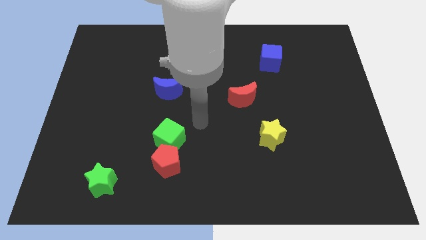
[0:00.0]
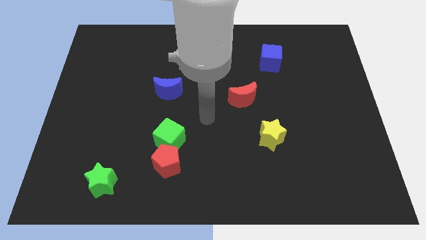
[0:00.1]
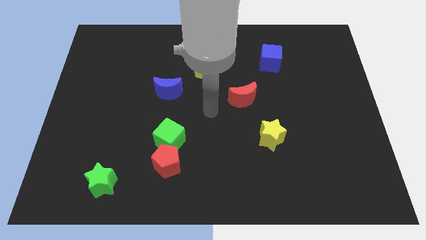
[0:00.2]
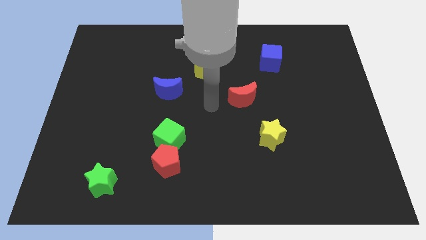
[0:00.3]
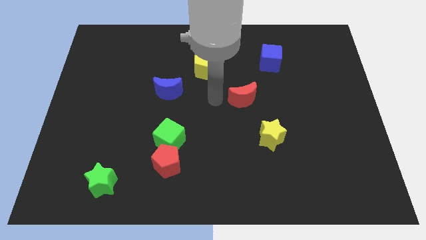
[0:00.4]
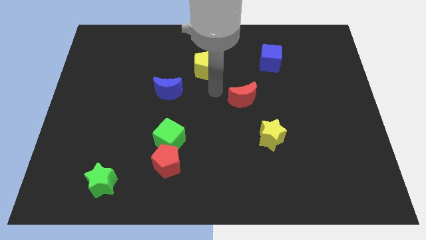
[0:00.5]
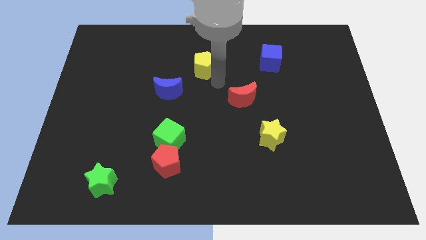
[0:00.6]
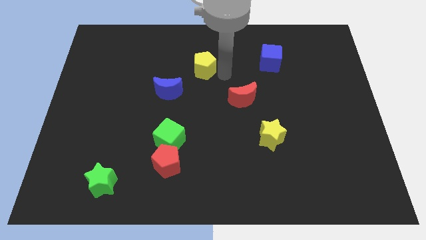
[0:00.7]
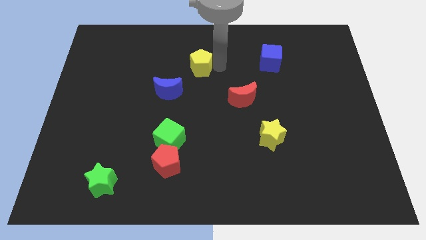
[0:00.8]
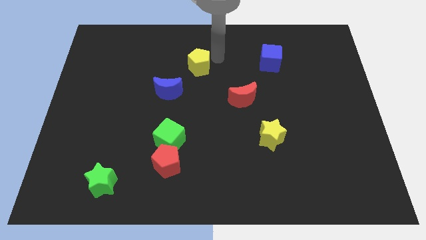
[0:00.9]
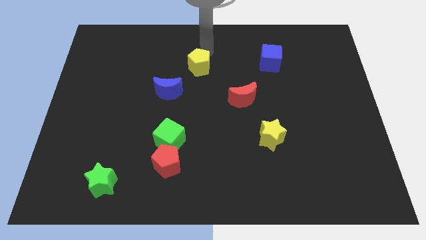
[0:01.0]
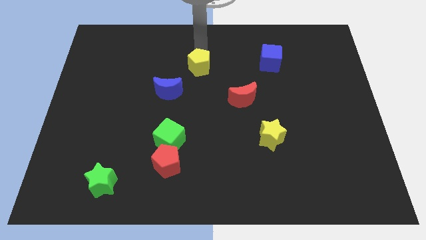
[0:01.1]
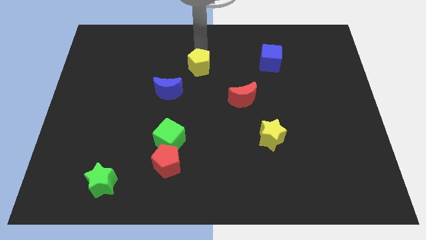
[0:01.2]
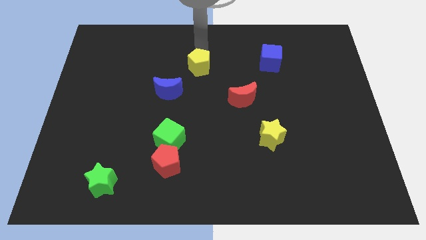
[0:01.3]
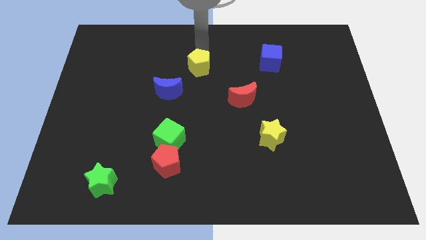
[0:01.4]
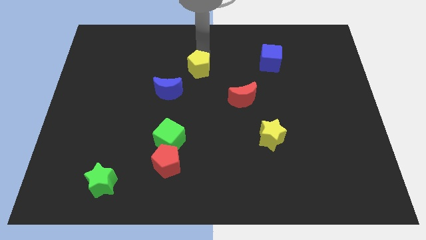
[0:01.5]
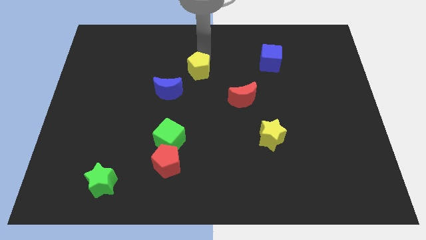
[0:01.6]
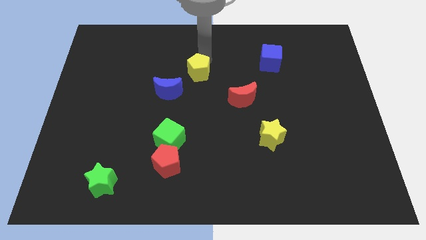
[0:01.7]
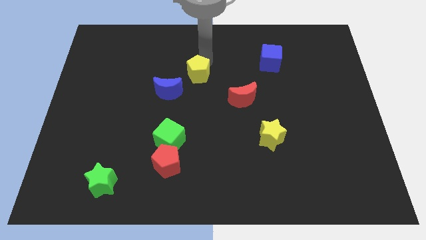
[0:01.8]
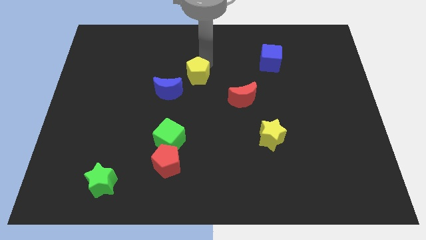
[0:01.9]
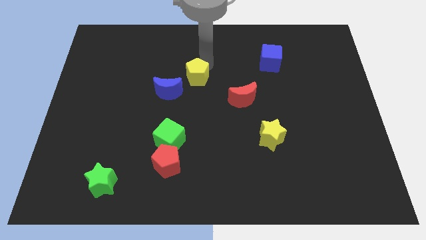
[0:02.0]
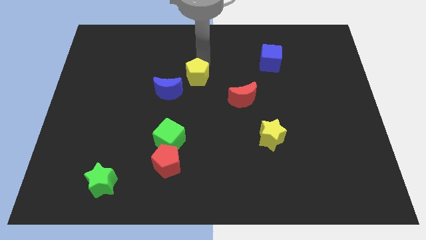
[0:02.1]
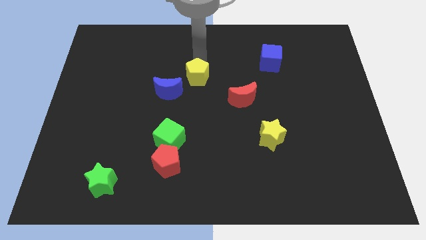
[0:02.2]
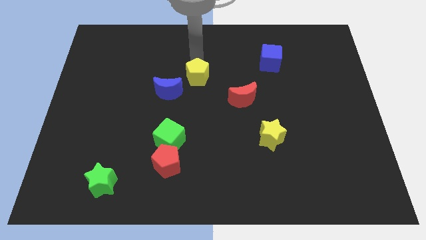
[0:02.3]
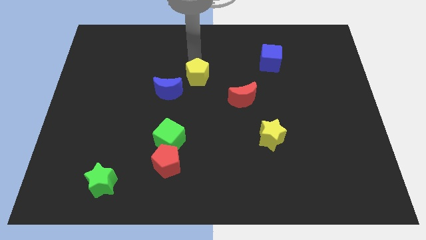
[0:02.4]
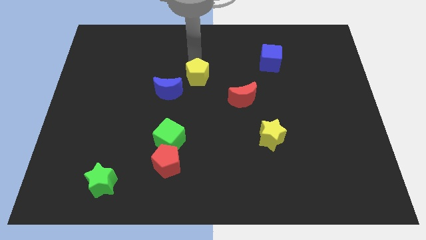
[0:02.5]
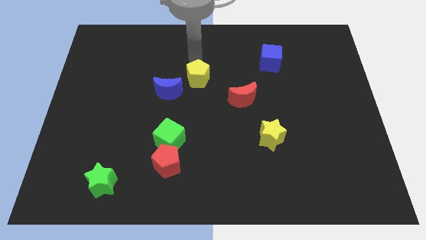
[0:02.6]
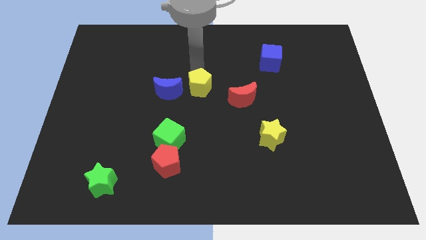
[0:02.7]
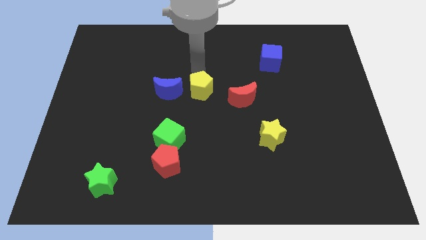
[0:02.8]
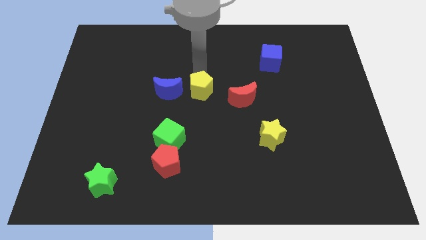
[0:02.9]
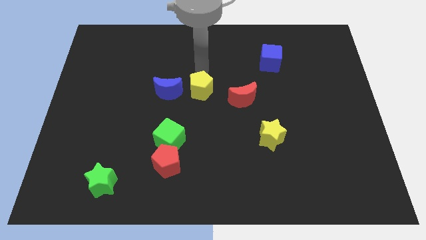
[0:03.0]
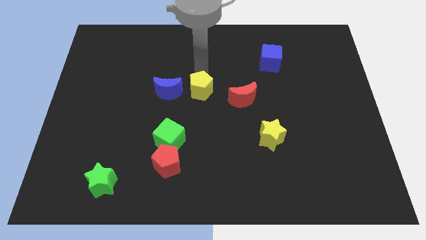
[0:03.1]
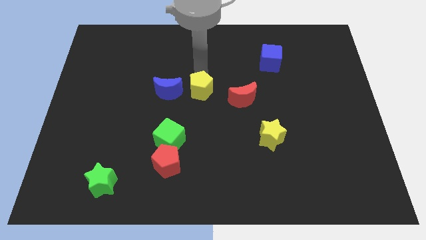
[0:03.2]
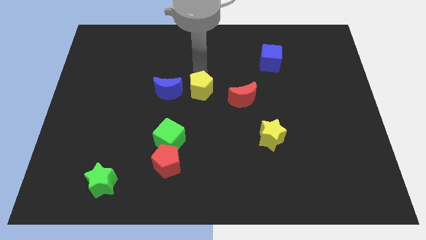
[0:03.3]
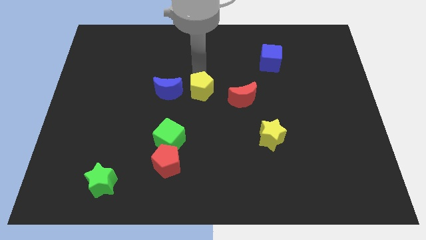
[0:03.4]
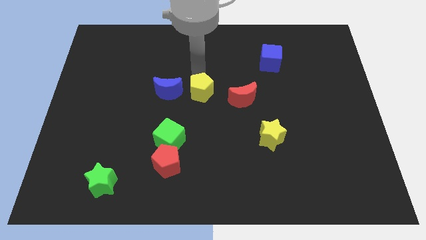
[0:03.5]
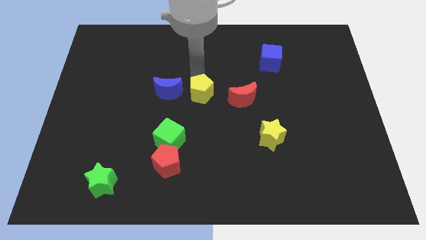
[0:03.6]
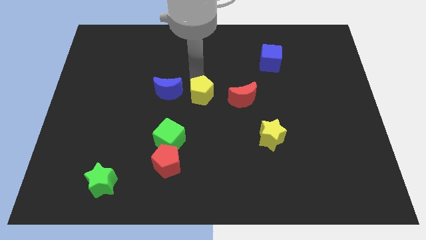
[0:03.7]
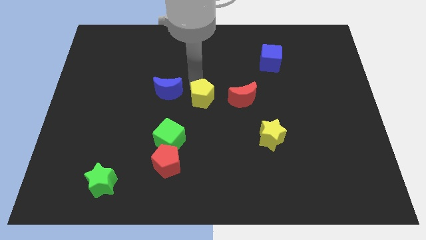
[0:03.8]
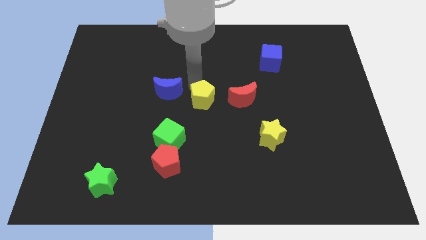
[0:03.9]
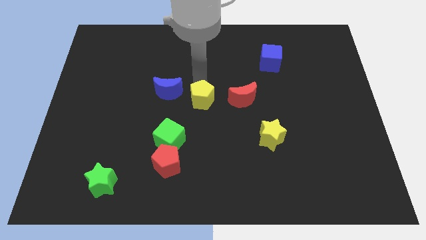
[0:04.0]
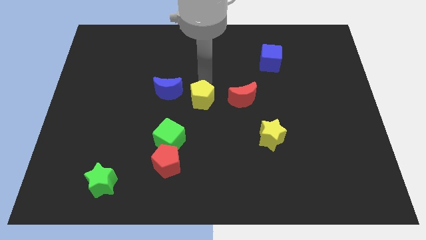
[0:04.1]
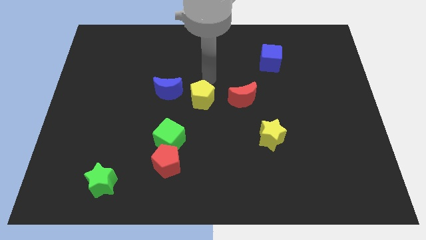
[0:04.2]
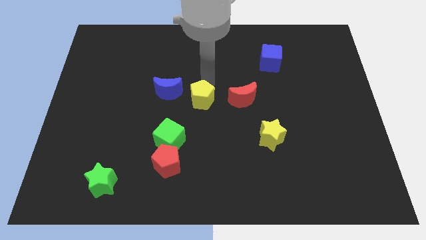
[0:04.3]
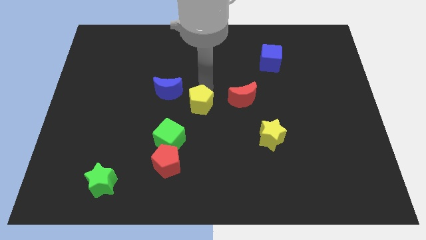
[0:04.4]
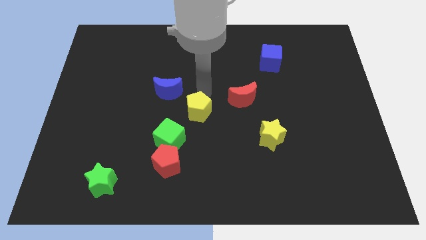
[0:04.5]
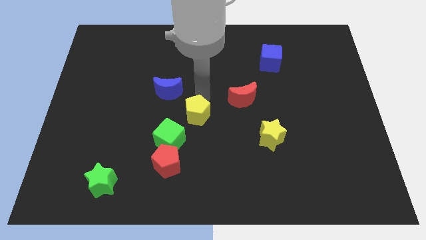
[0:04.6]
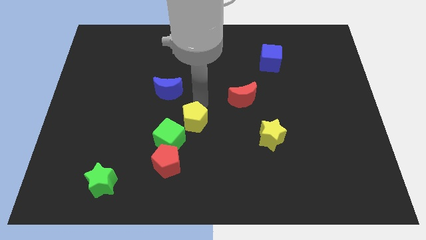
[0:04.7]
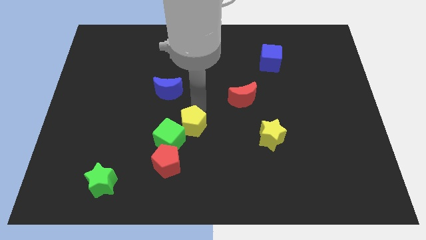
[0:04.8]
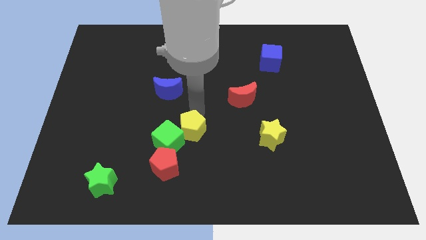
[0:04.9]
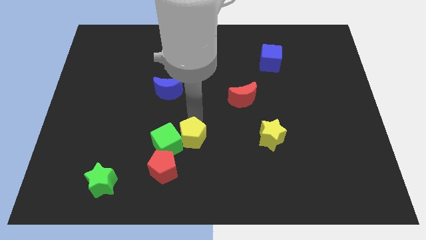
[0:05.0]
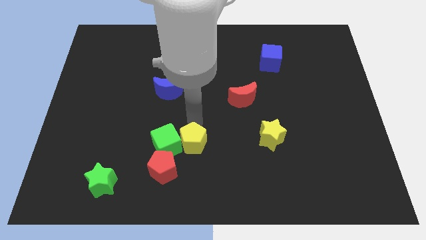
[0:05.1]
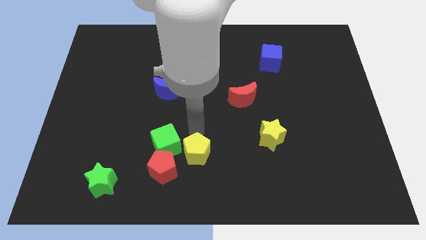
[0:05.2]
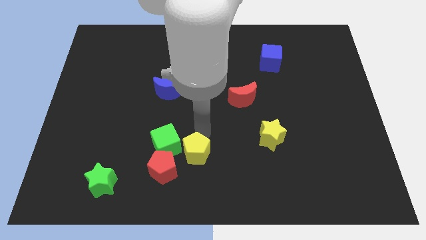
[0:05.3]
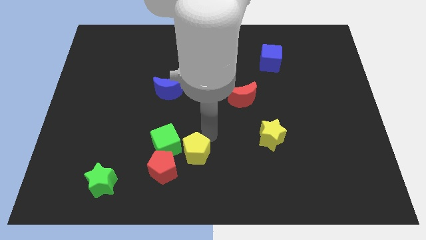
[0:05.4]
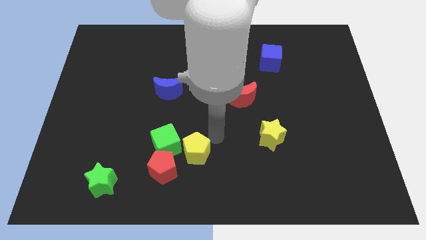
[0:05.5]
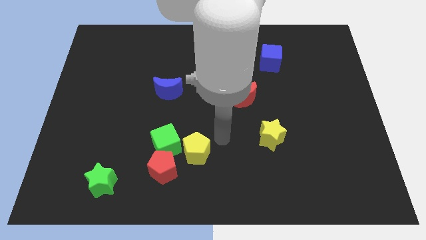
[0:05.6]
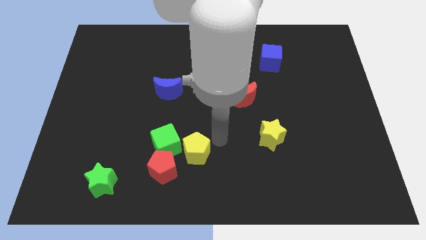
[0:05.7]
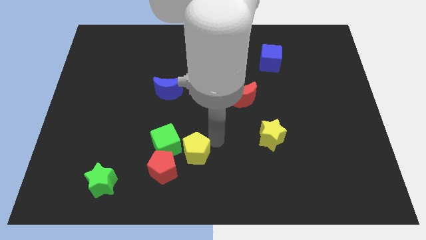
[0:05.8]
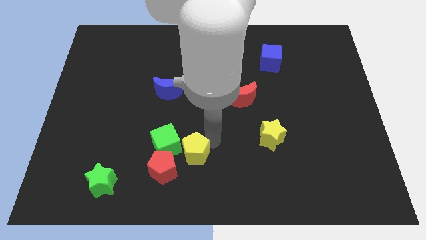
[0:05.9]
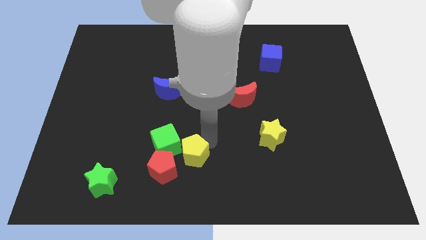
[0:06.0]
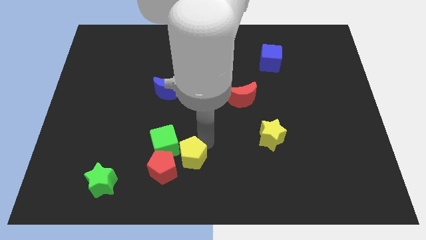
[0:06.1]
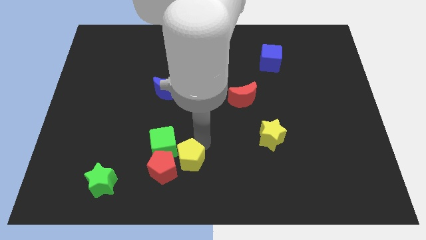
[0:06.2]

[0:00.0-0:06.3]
move the yellow pentagon next to the red pentagon
